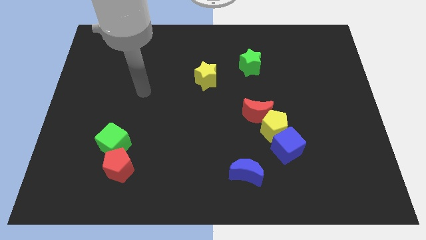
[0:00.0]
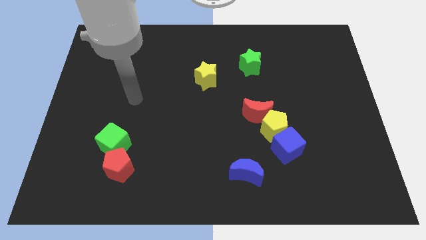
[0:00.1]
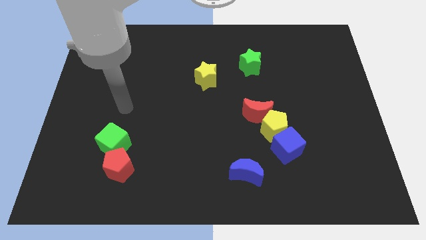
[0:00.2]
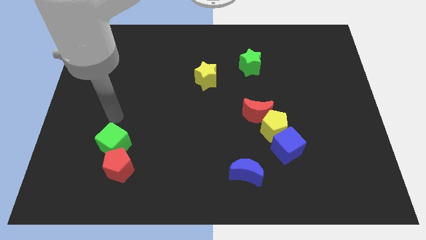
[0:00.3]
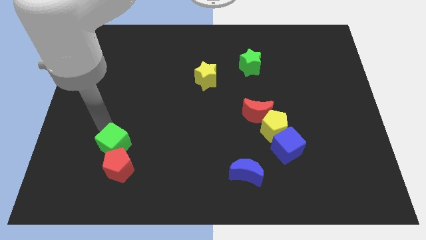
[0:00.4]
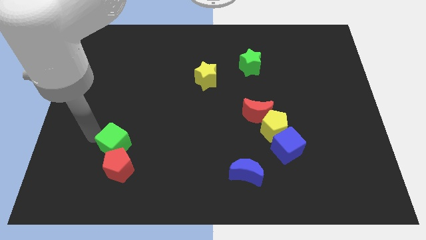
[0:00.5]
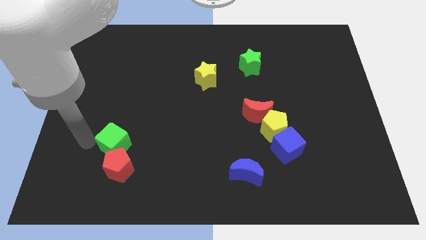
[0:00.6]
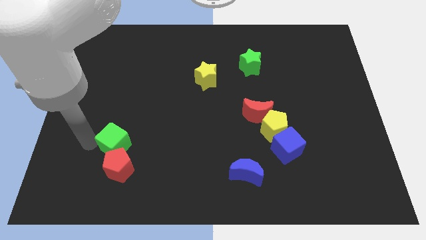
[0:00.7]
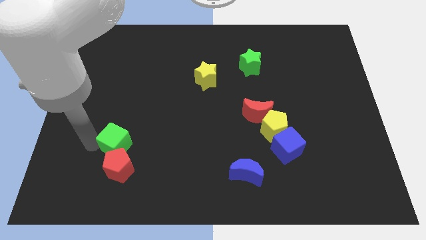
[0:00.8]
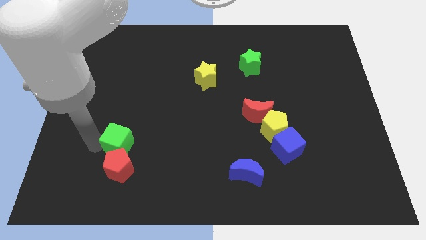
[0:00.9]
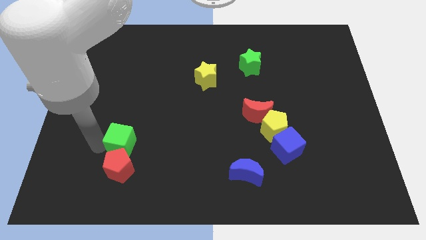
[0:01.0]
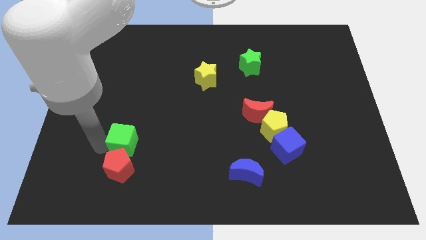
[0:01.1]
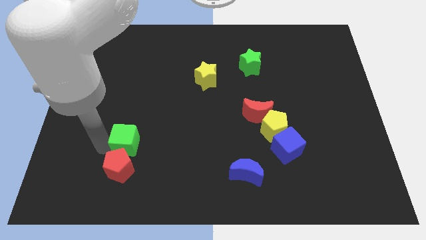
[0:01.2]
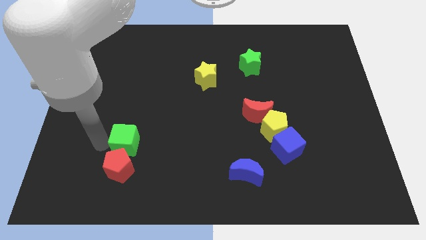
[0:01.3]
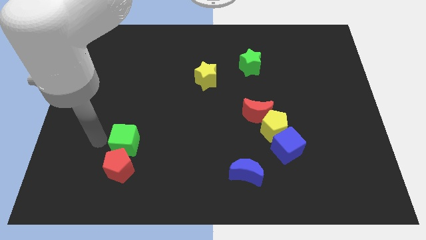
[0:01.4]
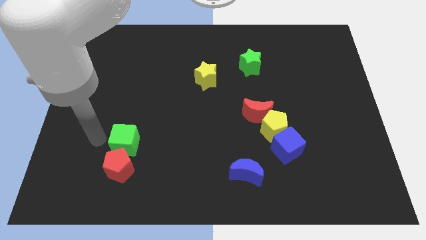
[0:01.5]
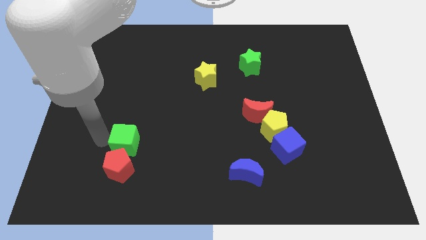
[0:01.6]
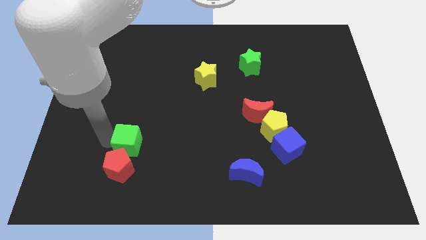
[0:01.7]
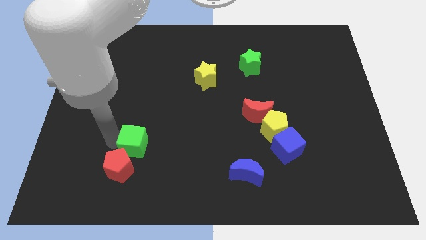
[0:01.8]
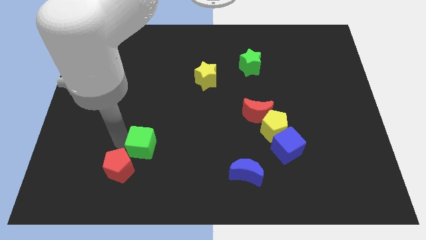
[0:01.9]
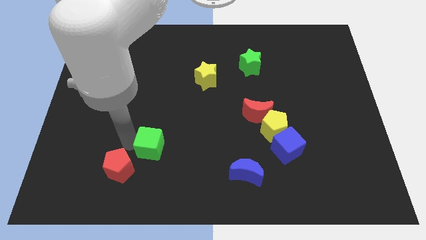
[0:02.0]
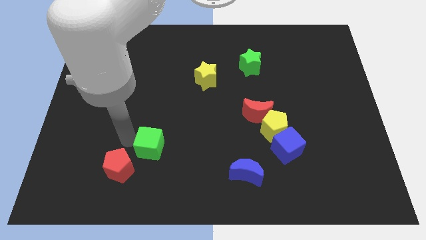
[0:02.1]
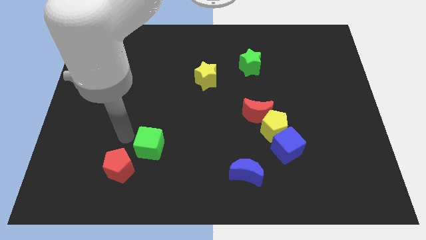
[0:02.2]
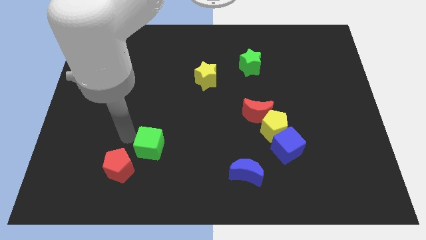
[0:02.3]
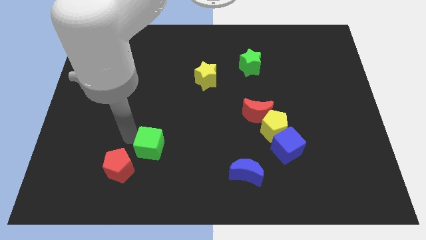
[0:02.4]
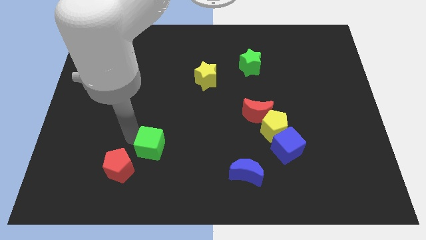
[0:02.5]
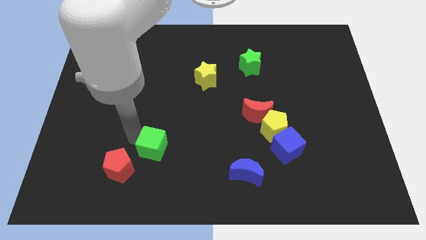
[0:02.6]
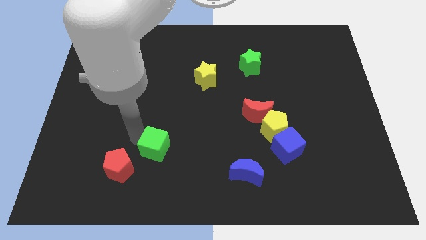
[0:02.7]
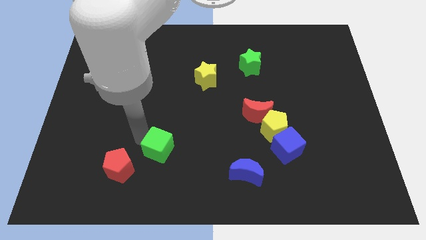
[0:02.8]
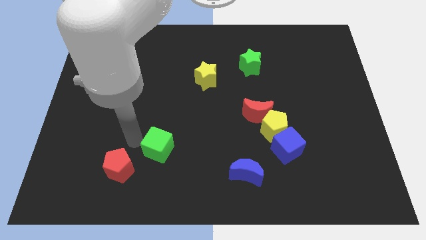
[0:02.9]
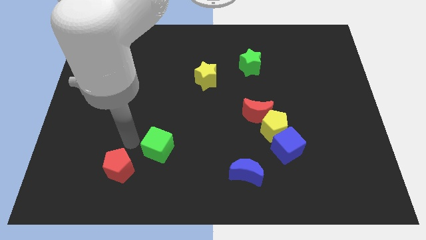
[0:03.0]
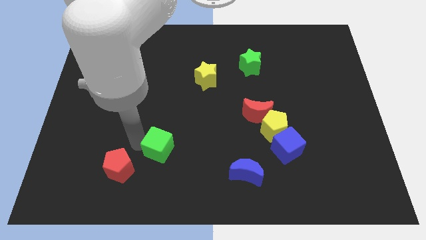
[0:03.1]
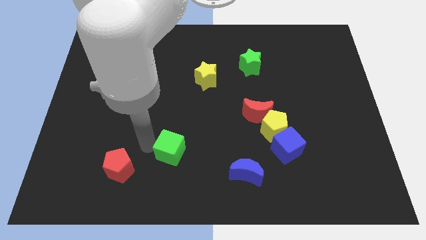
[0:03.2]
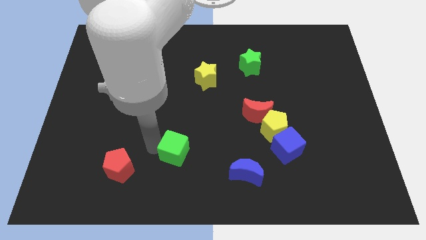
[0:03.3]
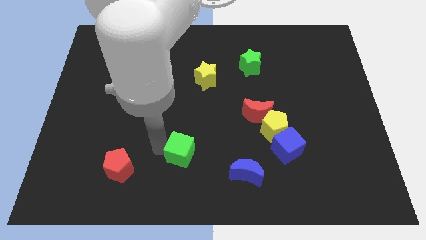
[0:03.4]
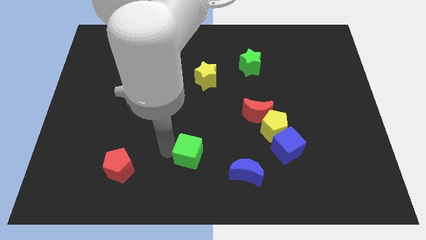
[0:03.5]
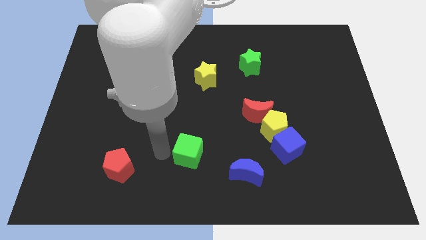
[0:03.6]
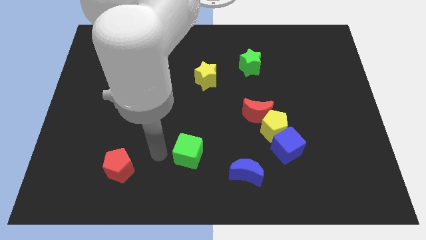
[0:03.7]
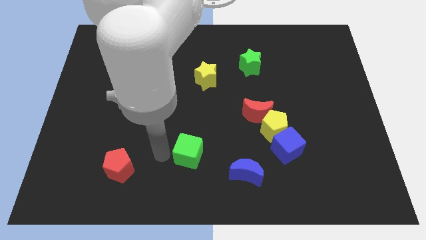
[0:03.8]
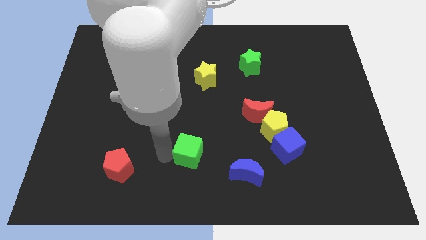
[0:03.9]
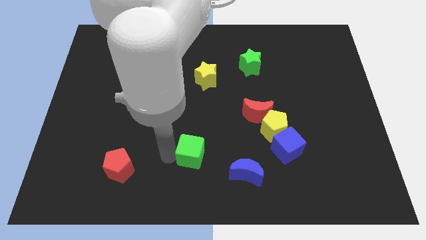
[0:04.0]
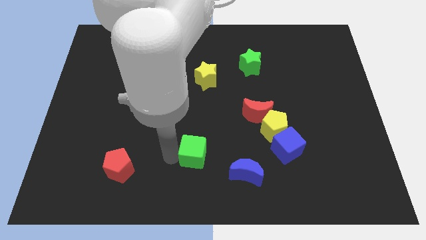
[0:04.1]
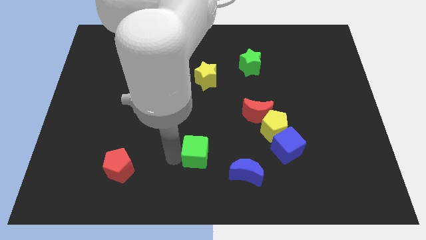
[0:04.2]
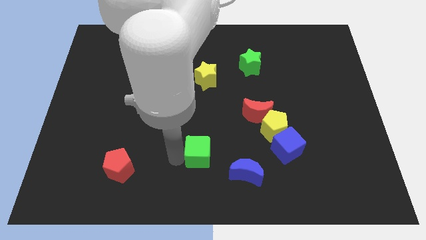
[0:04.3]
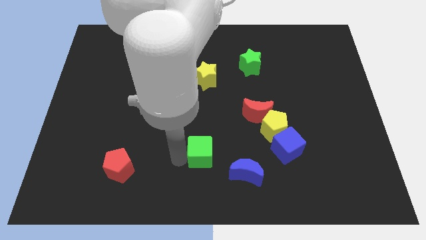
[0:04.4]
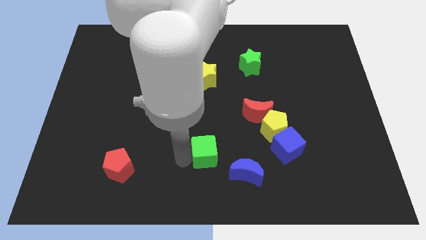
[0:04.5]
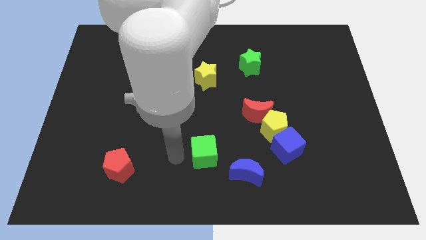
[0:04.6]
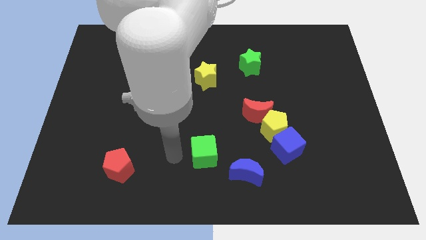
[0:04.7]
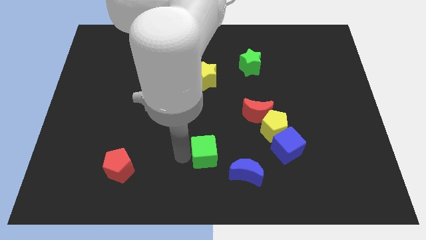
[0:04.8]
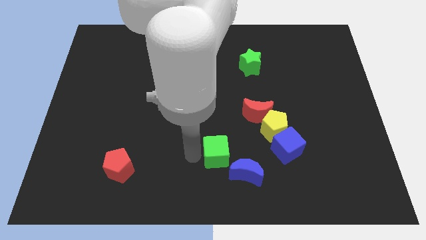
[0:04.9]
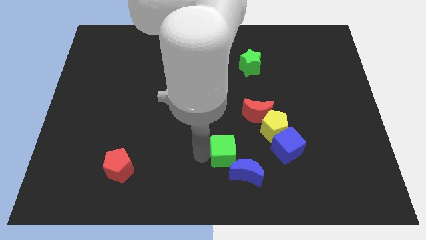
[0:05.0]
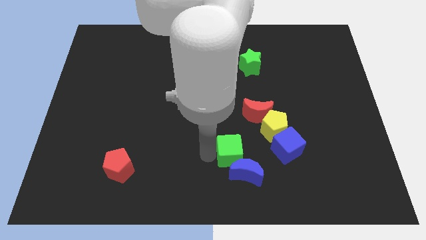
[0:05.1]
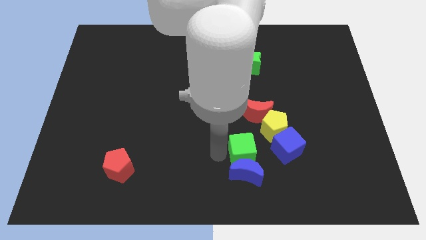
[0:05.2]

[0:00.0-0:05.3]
push the green cube diagonally up and to the right of the blue moon

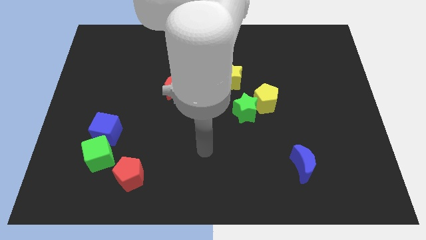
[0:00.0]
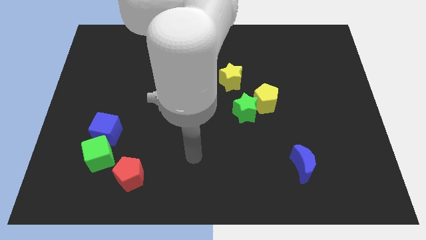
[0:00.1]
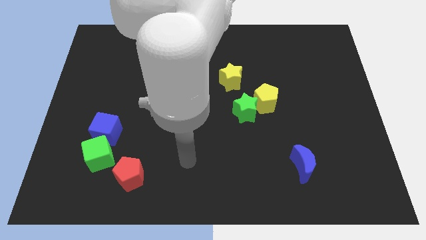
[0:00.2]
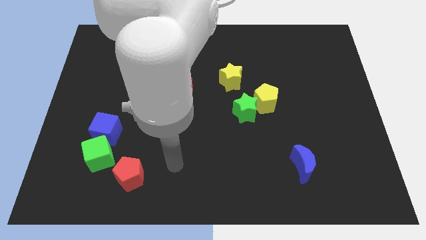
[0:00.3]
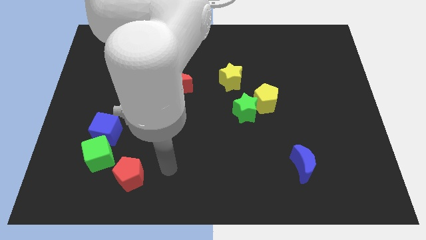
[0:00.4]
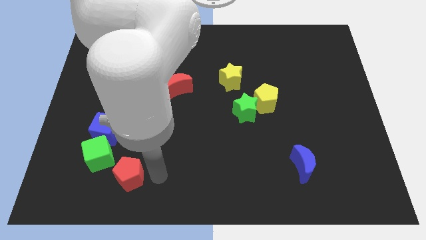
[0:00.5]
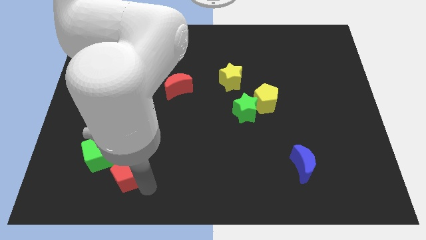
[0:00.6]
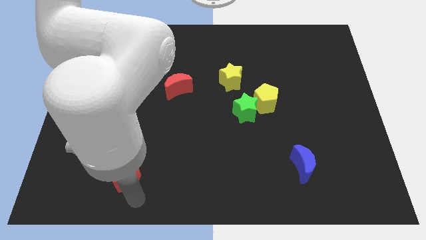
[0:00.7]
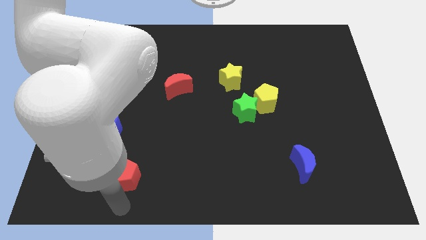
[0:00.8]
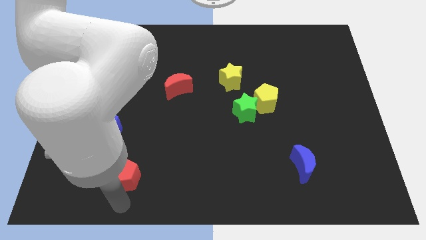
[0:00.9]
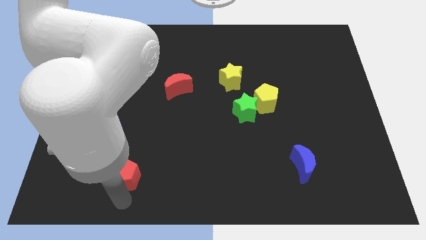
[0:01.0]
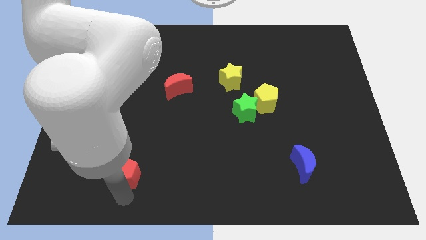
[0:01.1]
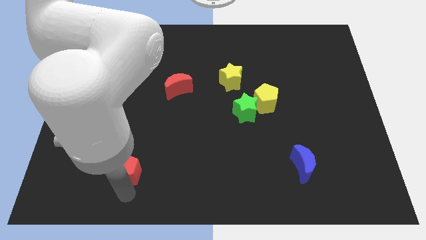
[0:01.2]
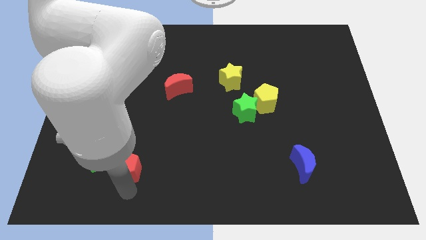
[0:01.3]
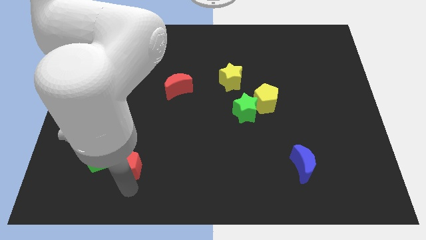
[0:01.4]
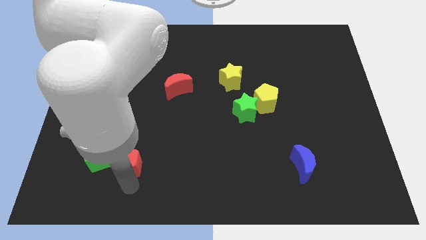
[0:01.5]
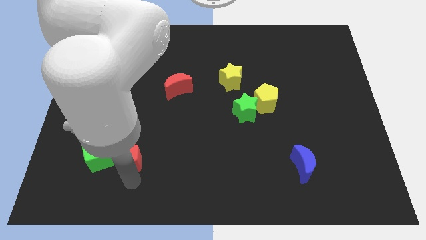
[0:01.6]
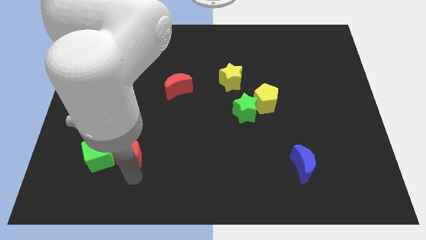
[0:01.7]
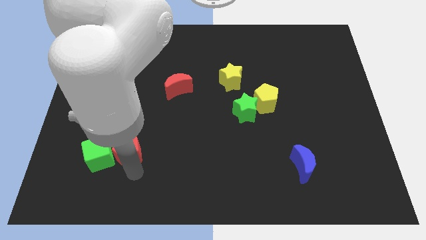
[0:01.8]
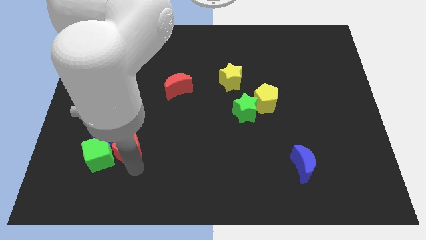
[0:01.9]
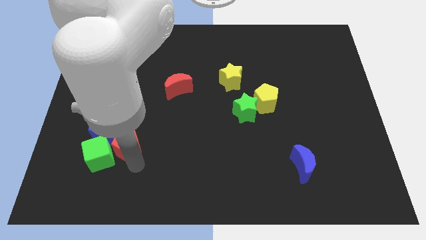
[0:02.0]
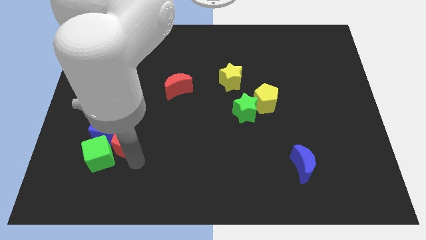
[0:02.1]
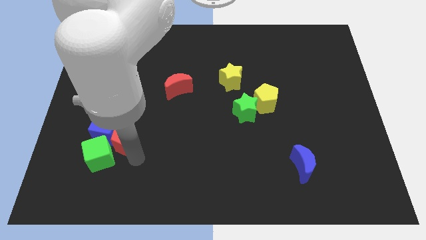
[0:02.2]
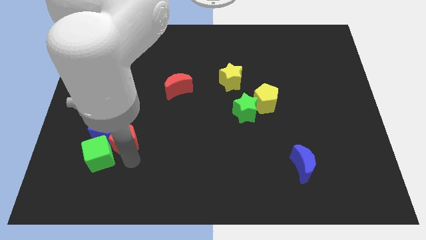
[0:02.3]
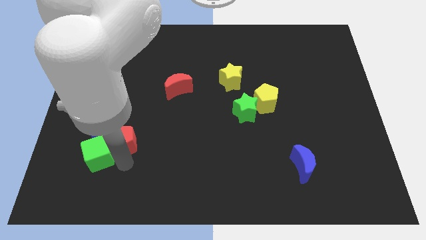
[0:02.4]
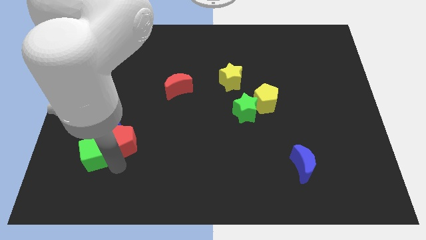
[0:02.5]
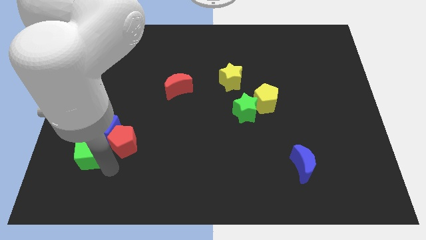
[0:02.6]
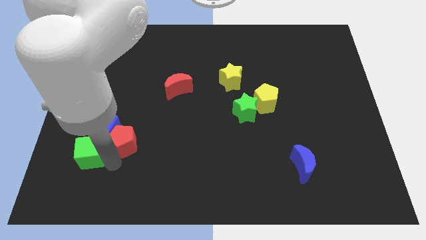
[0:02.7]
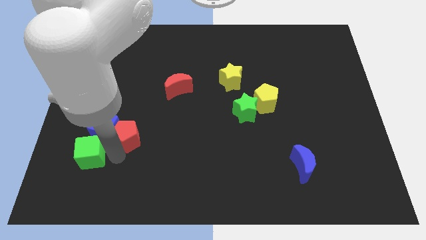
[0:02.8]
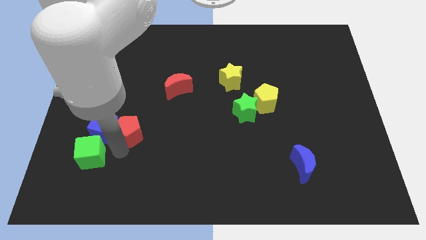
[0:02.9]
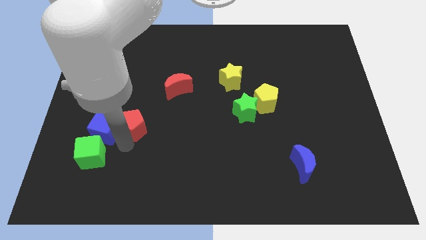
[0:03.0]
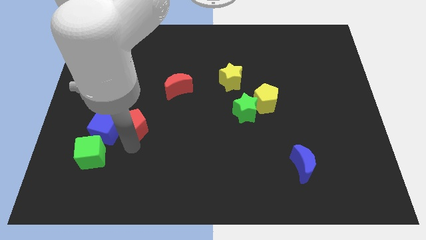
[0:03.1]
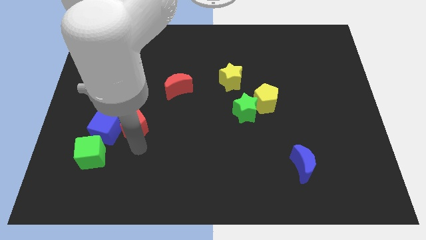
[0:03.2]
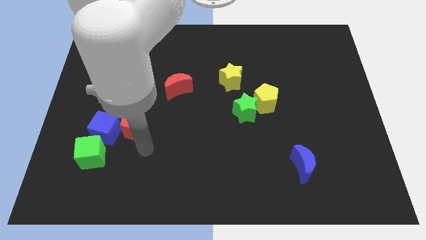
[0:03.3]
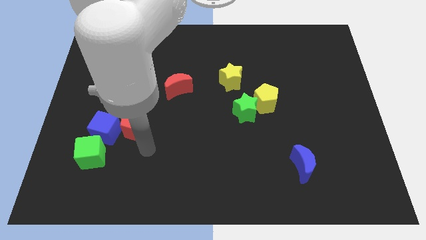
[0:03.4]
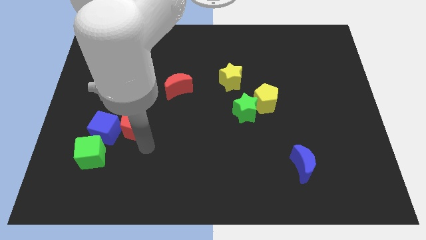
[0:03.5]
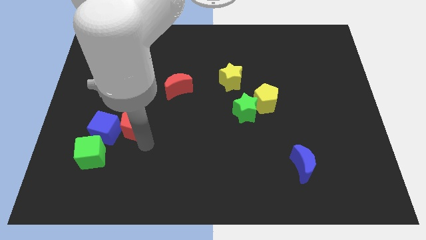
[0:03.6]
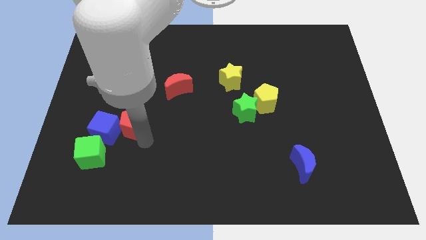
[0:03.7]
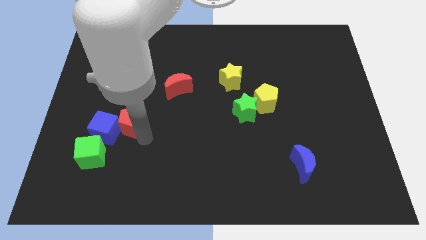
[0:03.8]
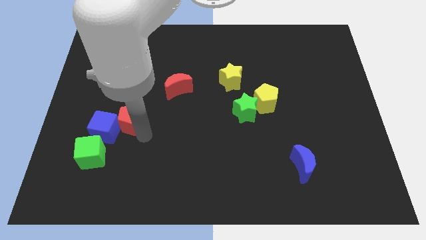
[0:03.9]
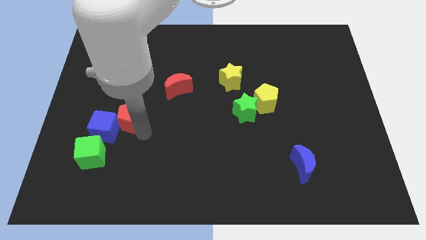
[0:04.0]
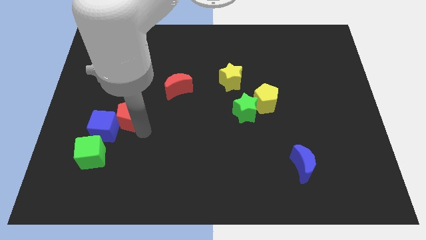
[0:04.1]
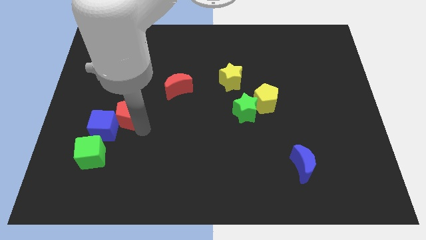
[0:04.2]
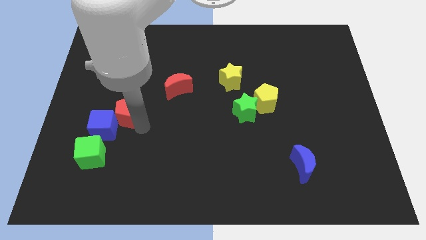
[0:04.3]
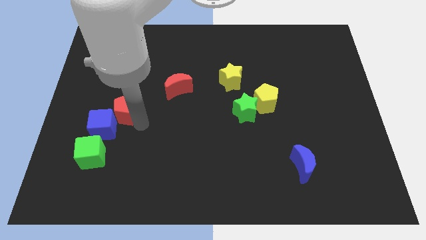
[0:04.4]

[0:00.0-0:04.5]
put the red pentagon above the blue cube
